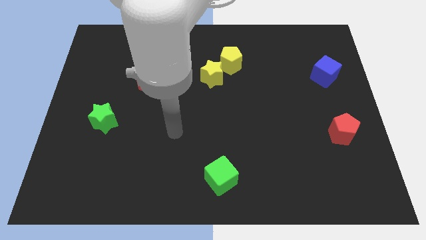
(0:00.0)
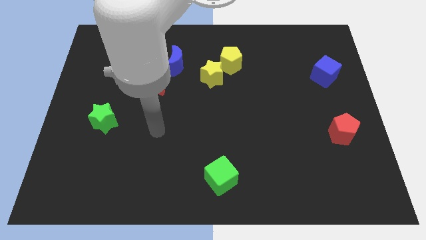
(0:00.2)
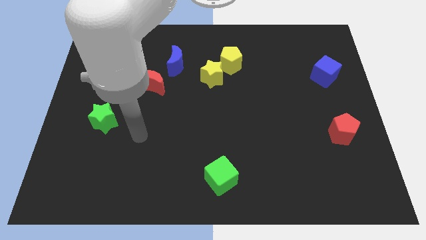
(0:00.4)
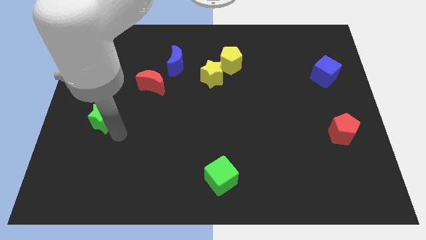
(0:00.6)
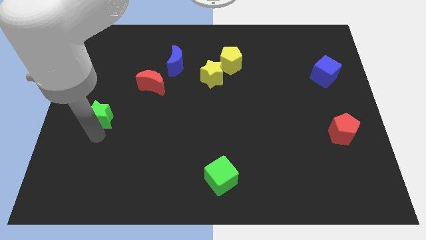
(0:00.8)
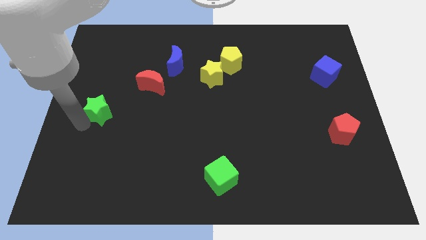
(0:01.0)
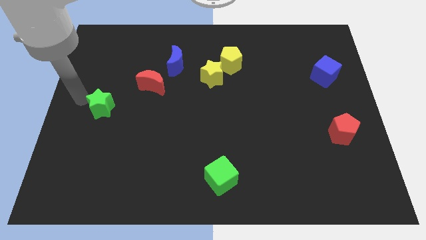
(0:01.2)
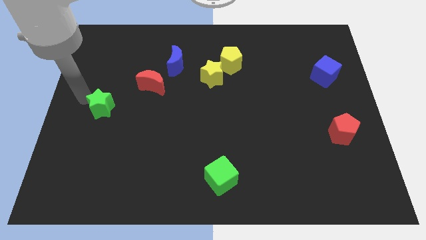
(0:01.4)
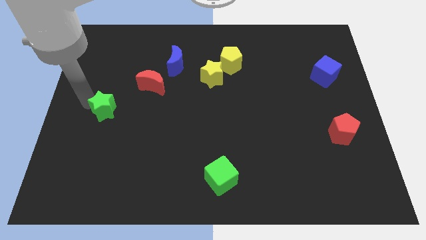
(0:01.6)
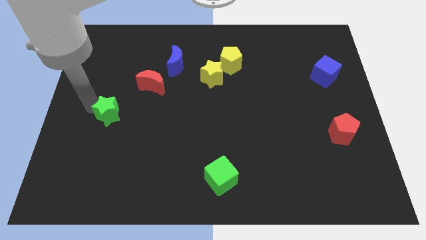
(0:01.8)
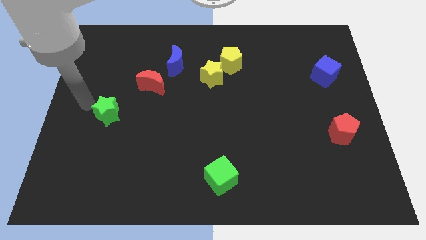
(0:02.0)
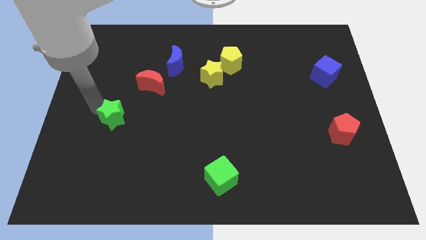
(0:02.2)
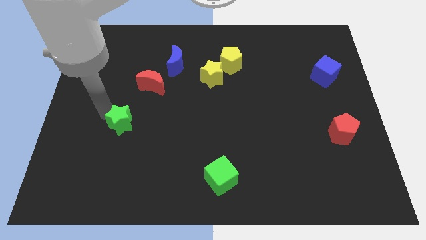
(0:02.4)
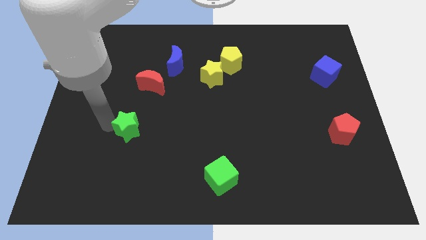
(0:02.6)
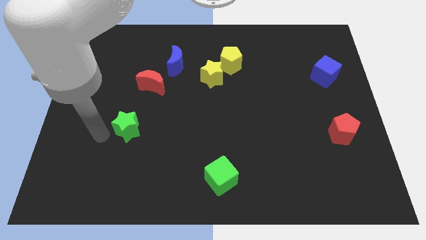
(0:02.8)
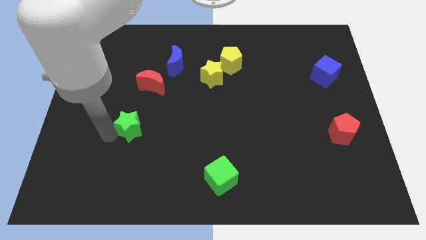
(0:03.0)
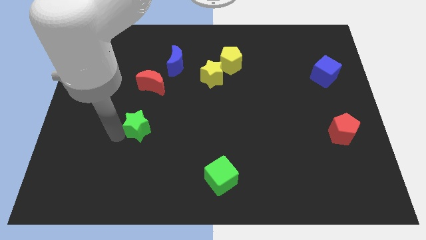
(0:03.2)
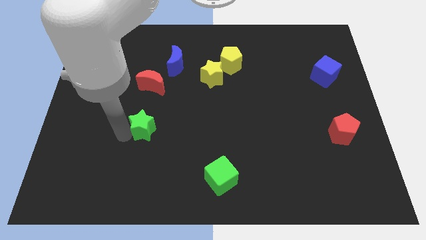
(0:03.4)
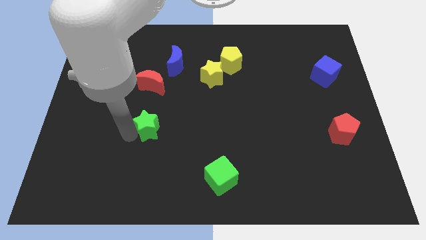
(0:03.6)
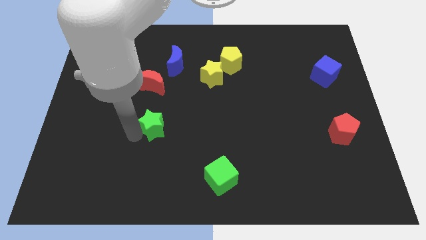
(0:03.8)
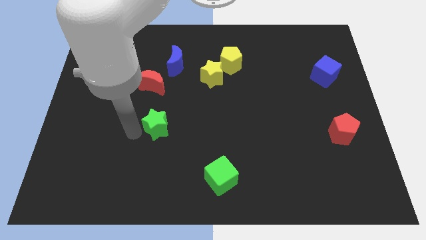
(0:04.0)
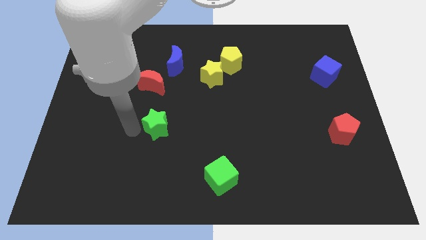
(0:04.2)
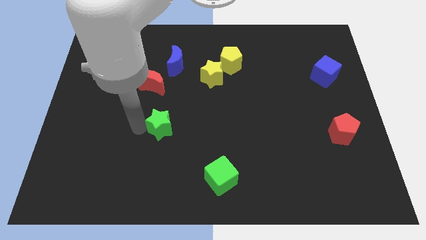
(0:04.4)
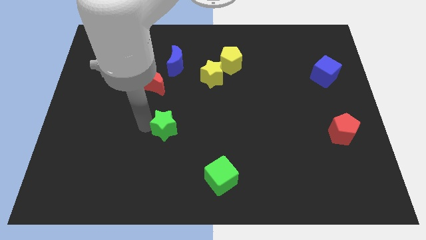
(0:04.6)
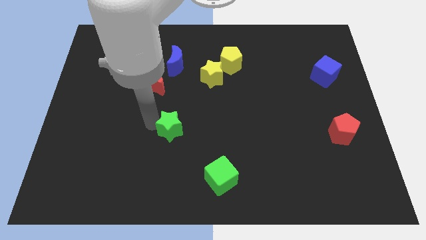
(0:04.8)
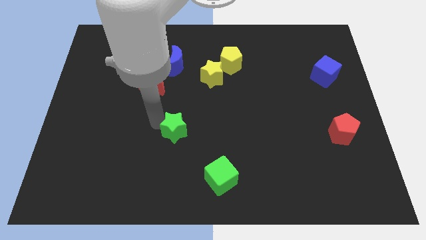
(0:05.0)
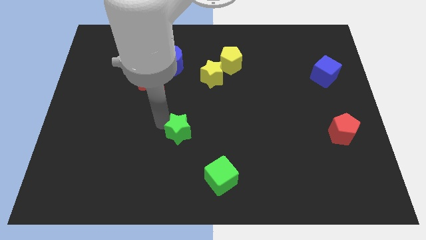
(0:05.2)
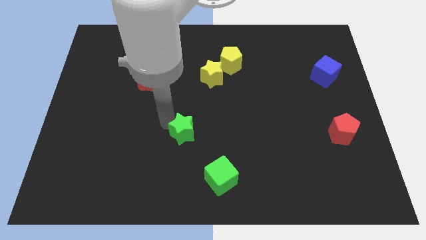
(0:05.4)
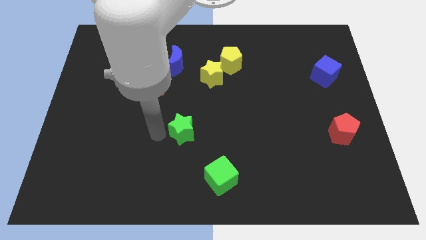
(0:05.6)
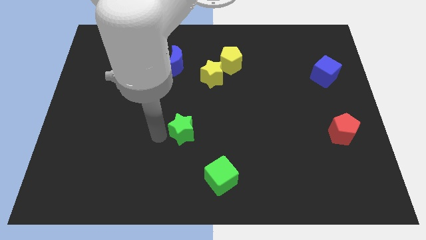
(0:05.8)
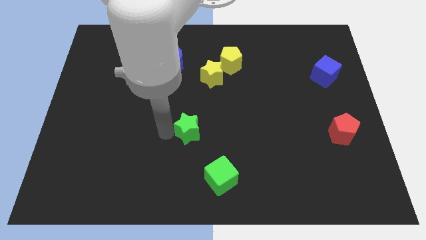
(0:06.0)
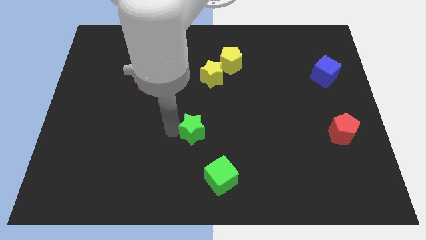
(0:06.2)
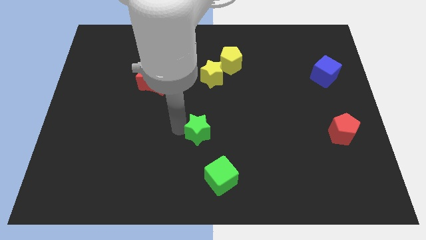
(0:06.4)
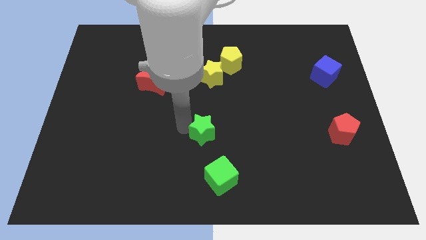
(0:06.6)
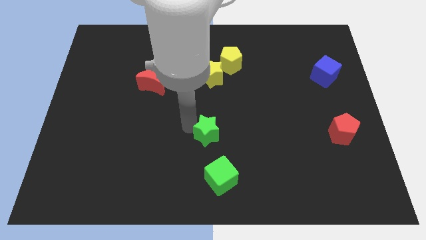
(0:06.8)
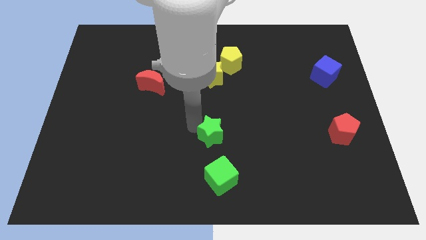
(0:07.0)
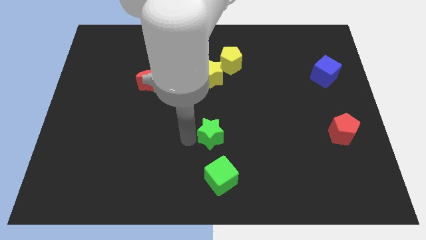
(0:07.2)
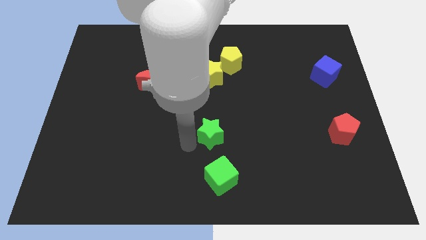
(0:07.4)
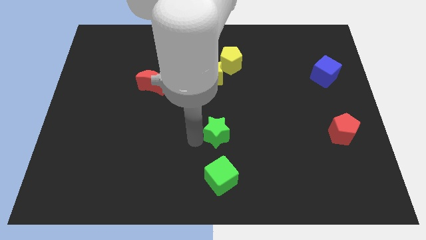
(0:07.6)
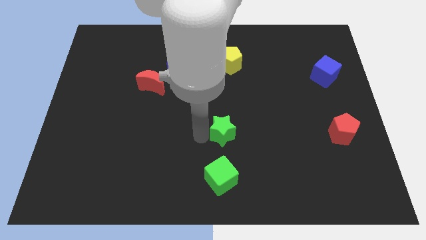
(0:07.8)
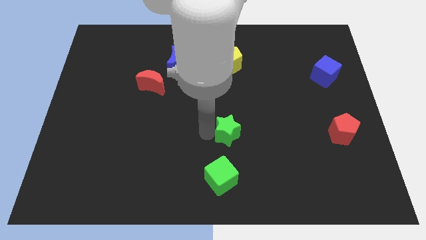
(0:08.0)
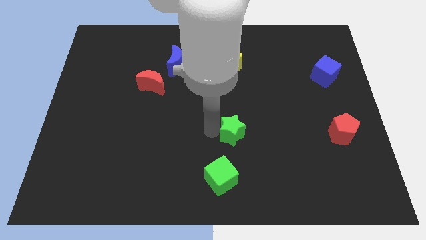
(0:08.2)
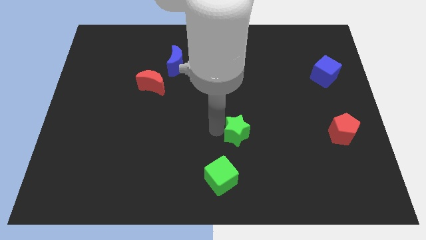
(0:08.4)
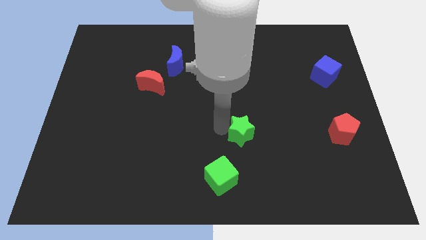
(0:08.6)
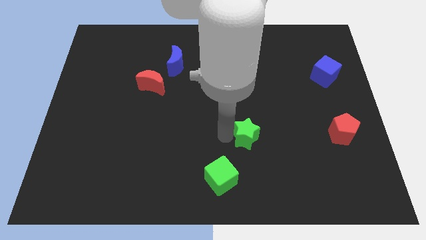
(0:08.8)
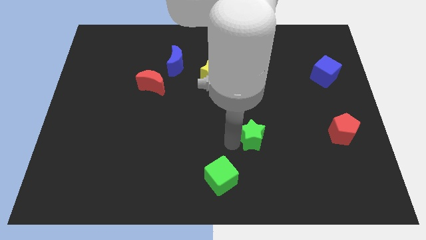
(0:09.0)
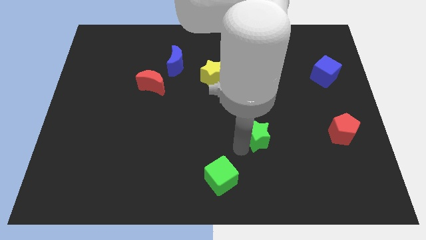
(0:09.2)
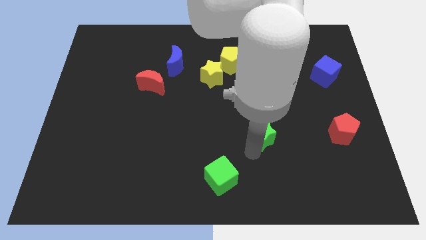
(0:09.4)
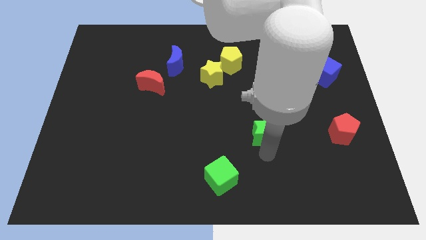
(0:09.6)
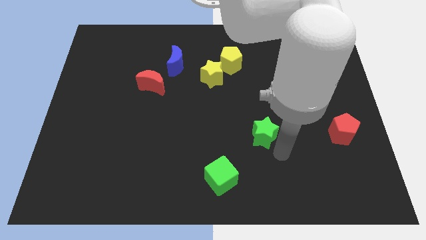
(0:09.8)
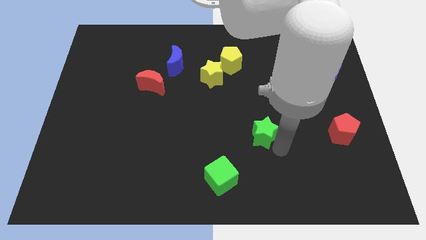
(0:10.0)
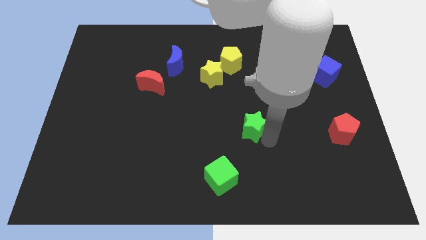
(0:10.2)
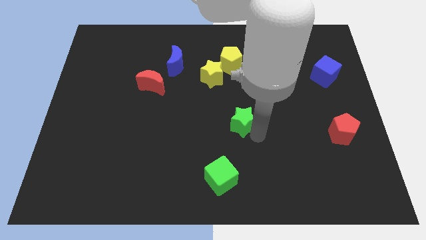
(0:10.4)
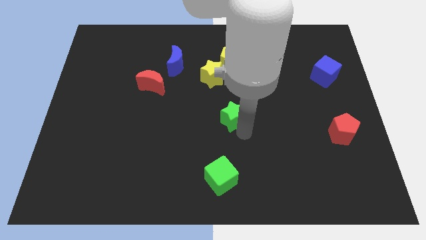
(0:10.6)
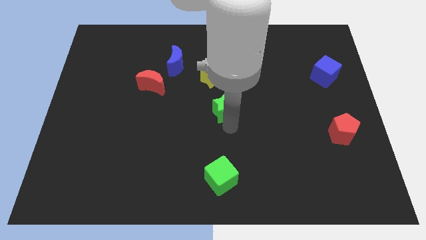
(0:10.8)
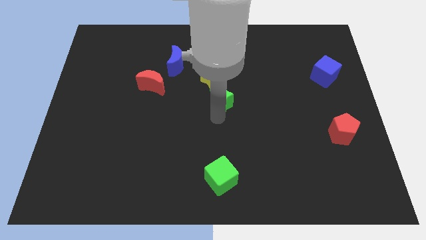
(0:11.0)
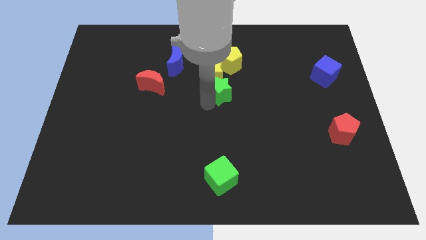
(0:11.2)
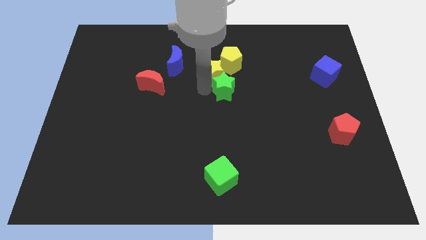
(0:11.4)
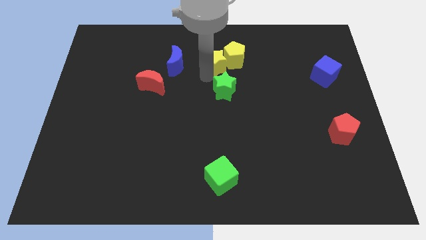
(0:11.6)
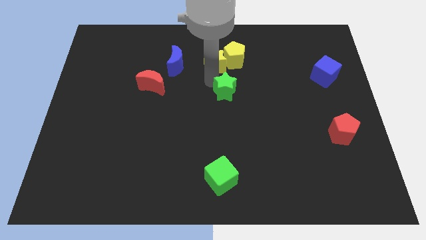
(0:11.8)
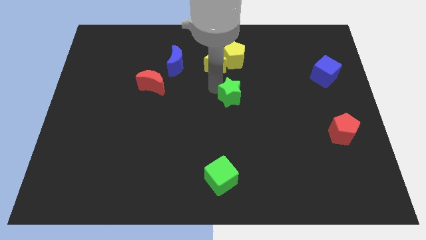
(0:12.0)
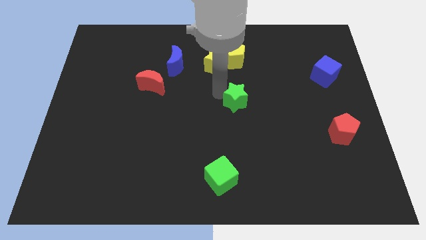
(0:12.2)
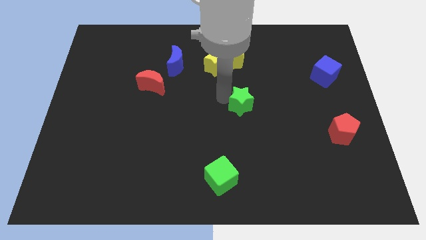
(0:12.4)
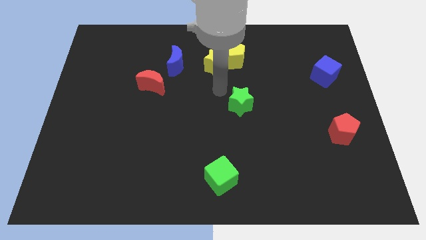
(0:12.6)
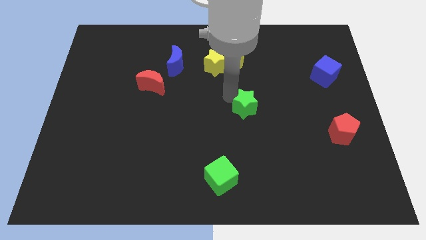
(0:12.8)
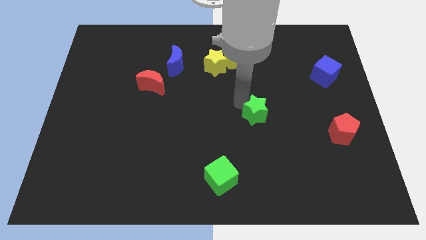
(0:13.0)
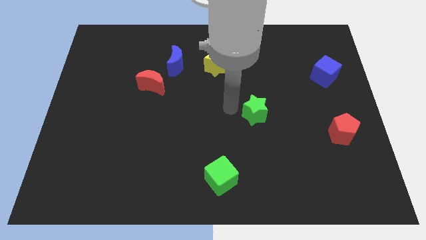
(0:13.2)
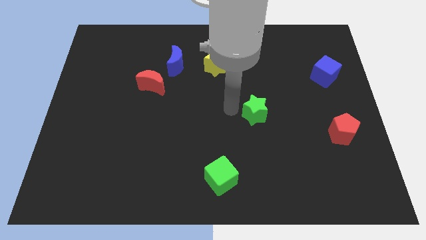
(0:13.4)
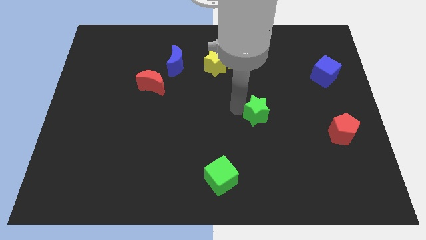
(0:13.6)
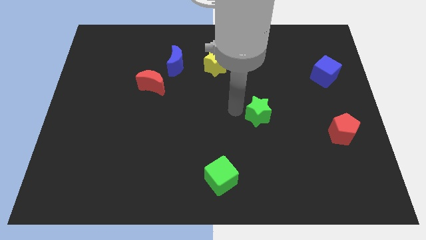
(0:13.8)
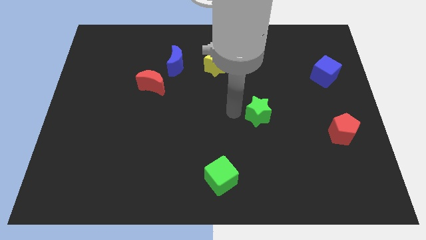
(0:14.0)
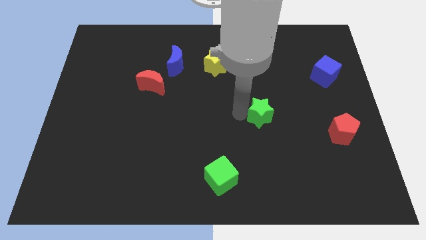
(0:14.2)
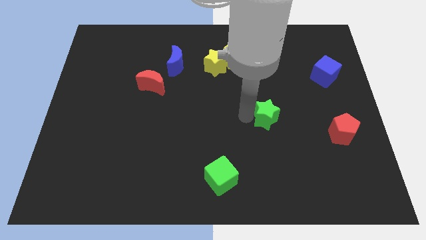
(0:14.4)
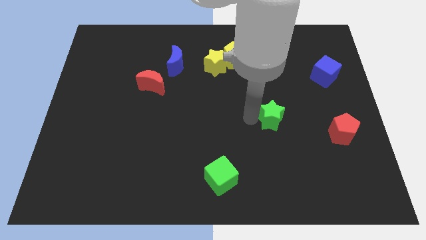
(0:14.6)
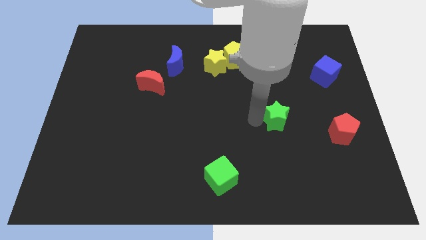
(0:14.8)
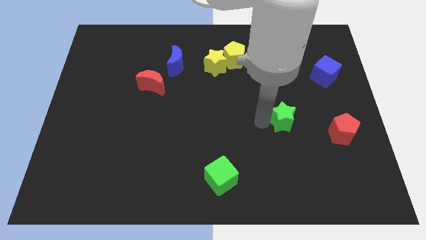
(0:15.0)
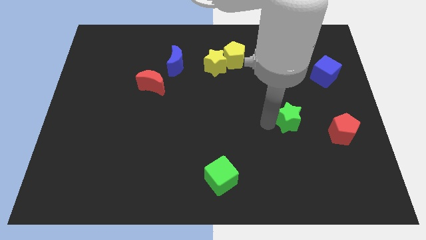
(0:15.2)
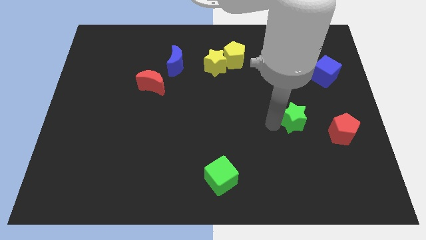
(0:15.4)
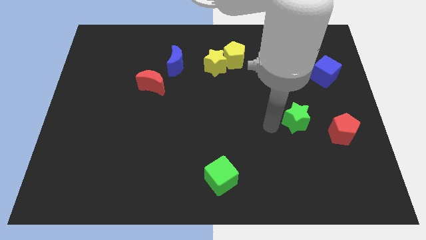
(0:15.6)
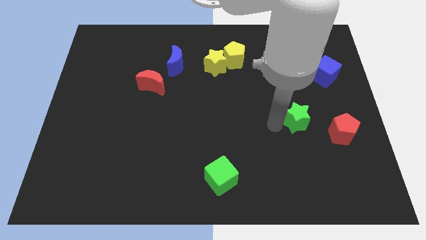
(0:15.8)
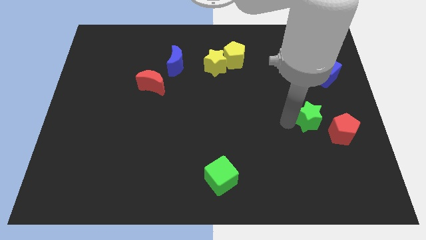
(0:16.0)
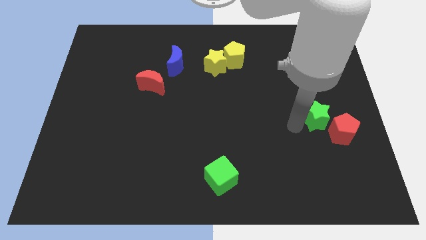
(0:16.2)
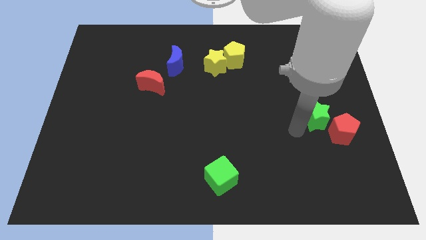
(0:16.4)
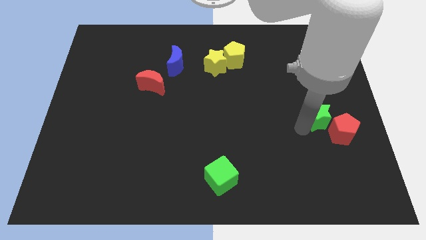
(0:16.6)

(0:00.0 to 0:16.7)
push the green star below the blue cube
